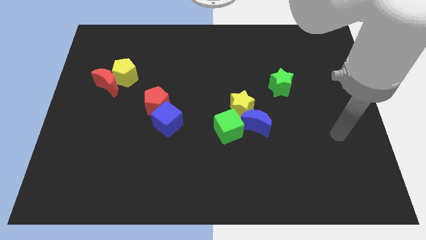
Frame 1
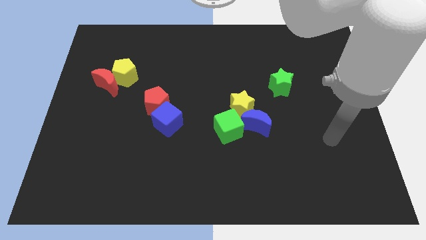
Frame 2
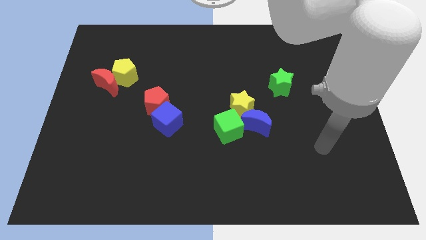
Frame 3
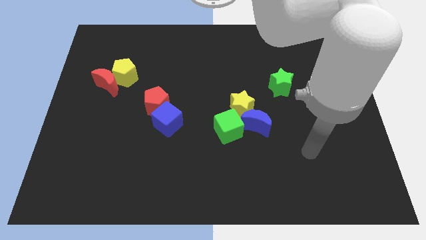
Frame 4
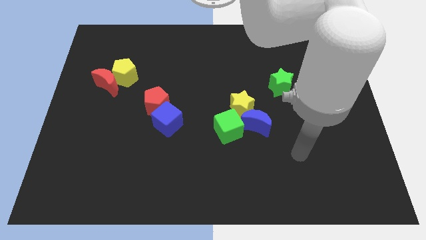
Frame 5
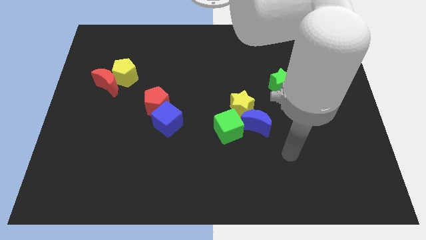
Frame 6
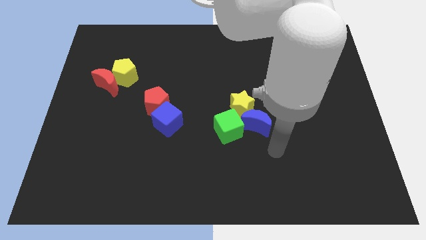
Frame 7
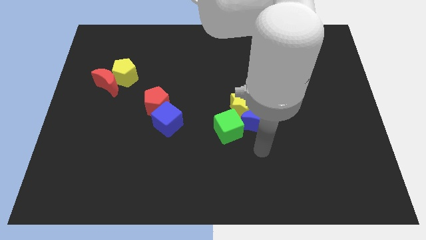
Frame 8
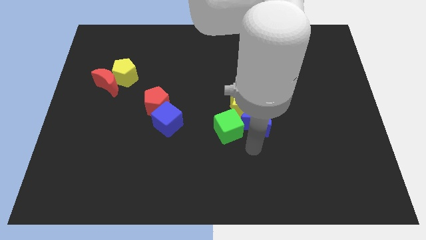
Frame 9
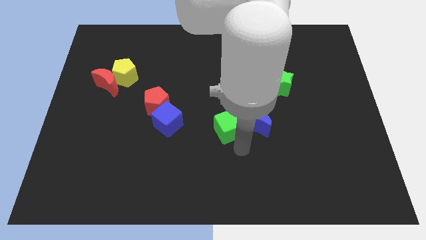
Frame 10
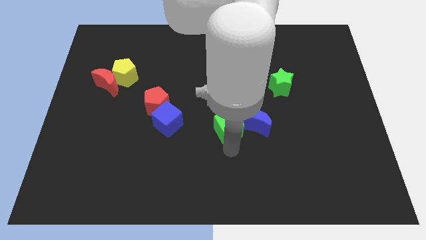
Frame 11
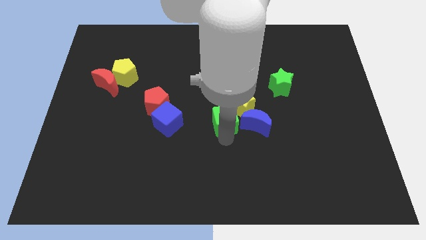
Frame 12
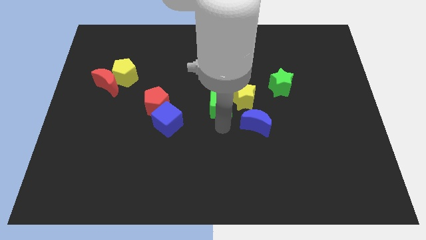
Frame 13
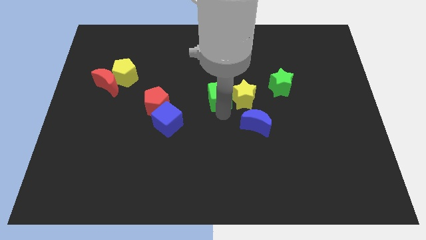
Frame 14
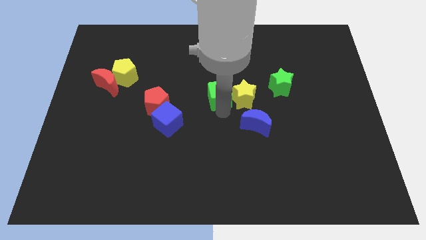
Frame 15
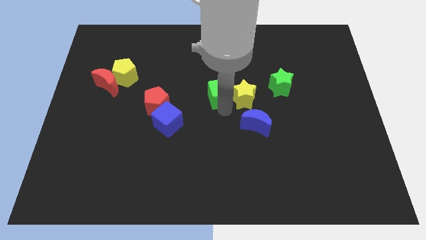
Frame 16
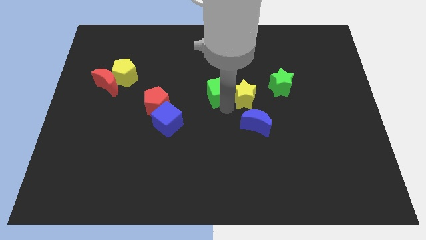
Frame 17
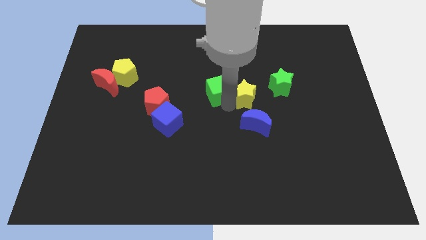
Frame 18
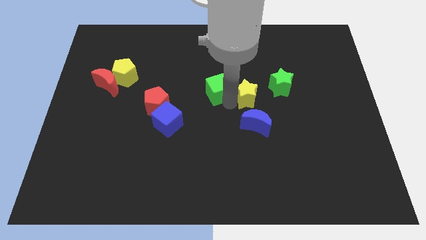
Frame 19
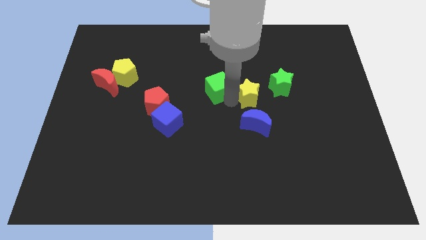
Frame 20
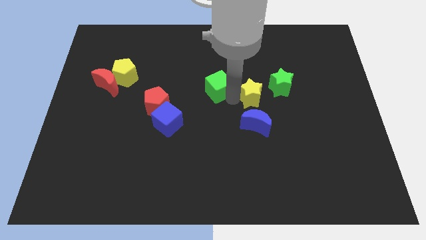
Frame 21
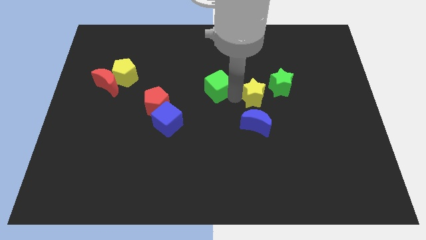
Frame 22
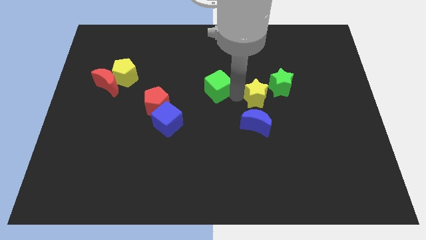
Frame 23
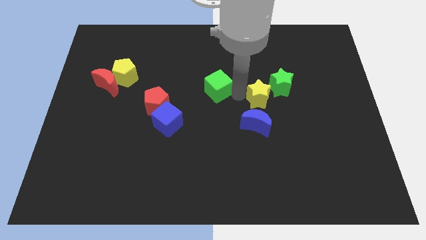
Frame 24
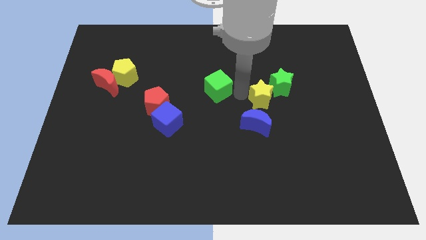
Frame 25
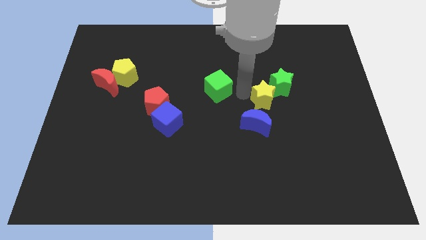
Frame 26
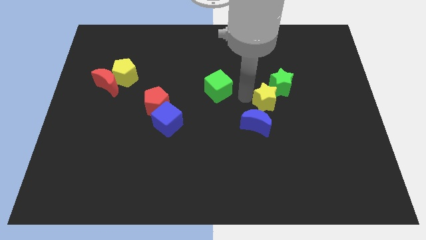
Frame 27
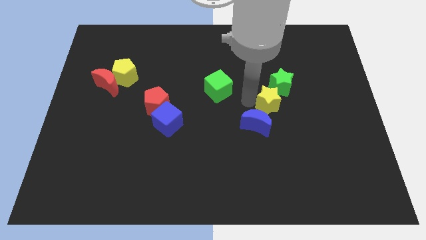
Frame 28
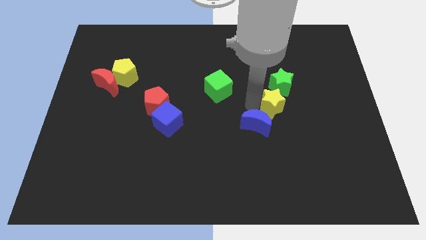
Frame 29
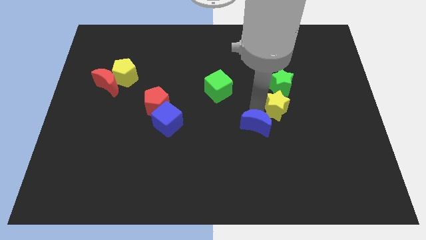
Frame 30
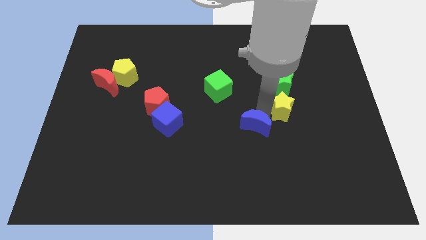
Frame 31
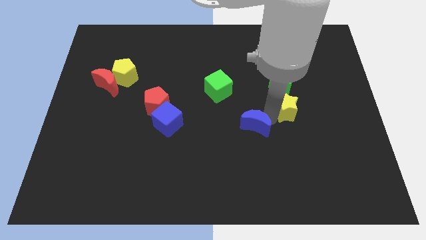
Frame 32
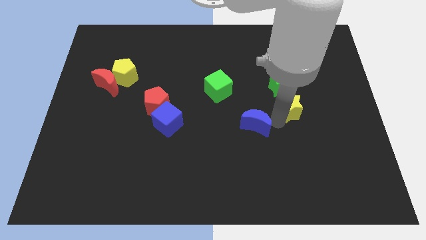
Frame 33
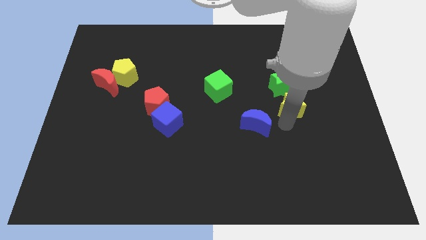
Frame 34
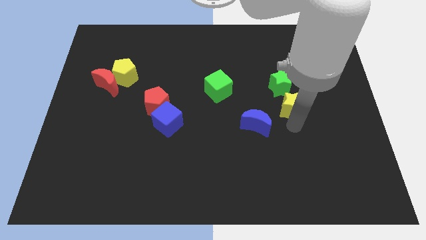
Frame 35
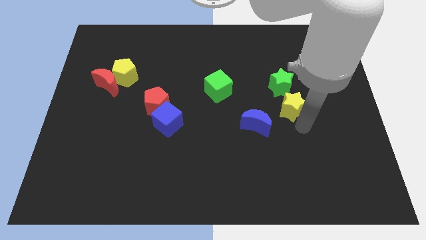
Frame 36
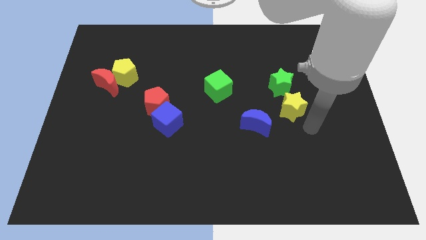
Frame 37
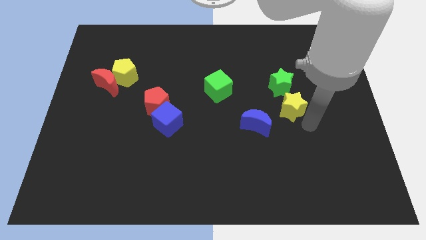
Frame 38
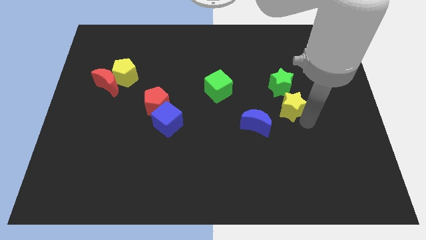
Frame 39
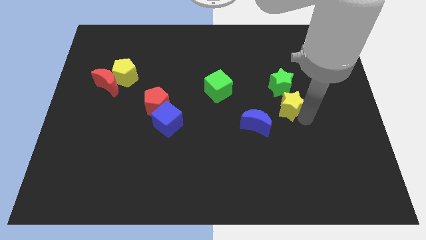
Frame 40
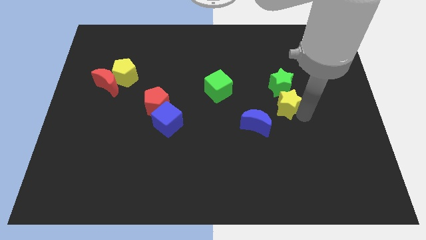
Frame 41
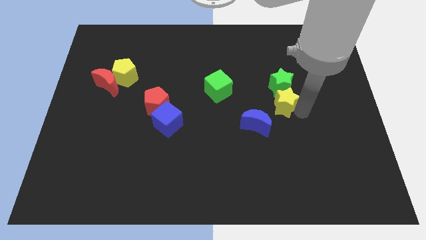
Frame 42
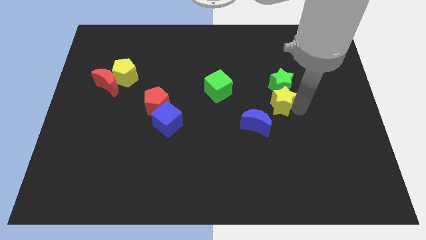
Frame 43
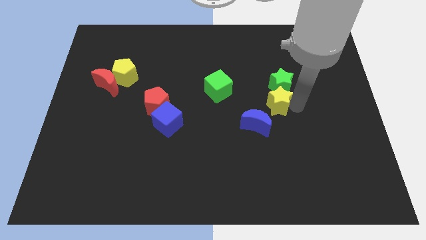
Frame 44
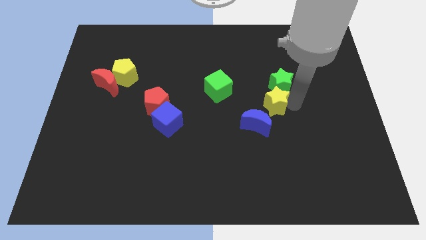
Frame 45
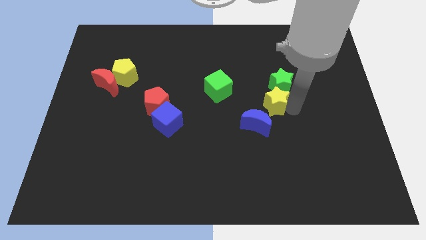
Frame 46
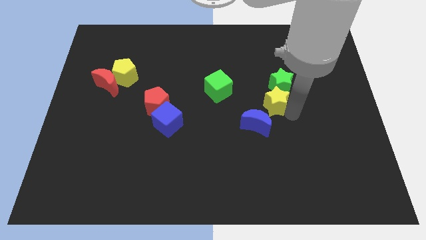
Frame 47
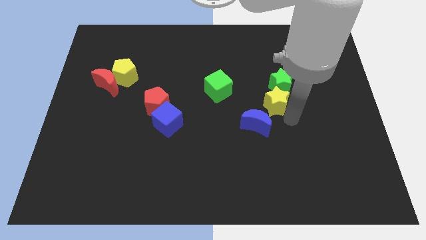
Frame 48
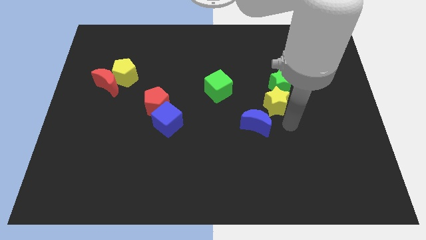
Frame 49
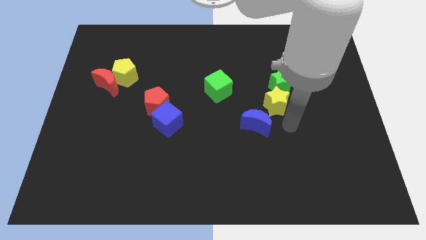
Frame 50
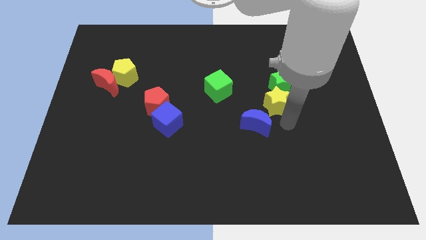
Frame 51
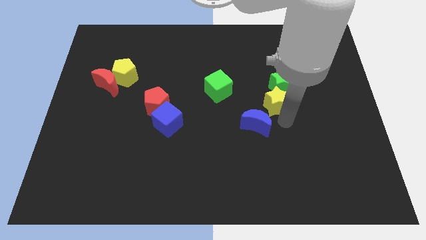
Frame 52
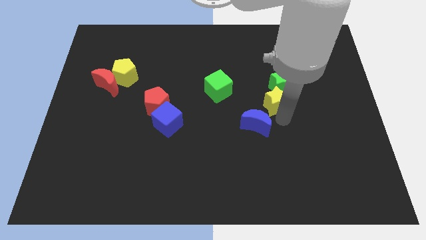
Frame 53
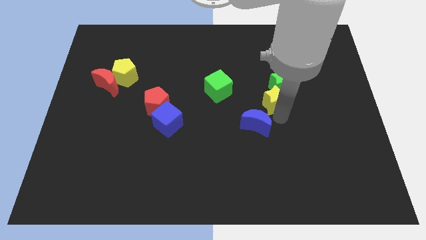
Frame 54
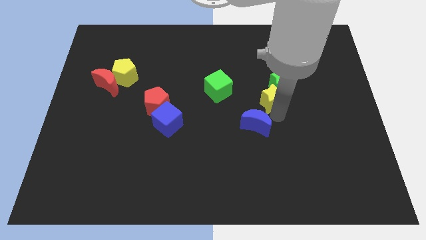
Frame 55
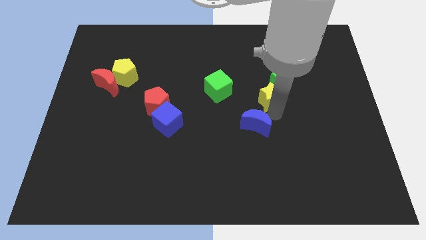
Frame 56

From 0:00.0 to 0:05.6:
move the yellow star diagonally up and to the right a little

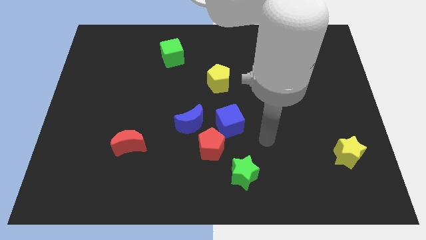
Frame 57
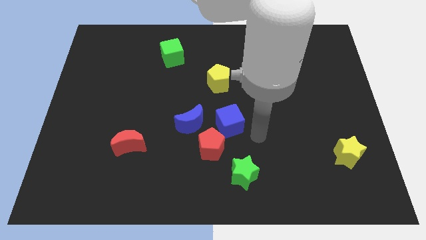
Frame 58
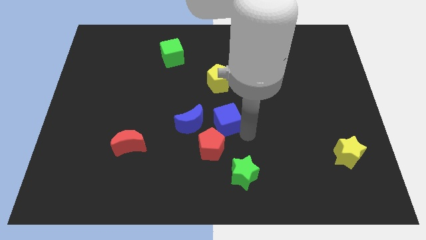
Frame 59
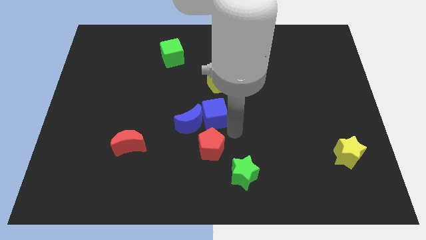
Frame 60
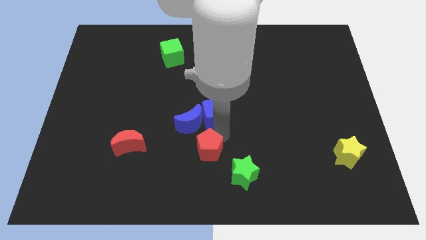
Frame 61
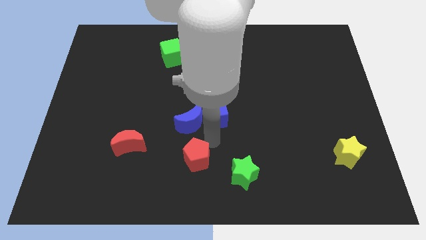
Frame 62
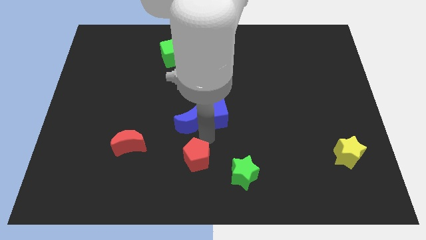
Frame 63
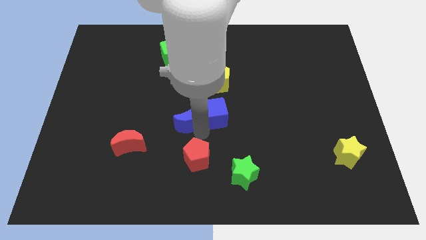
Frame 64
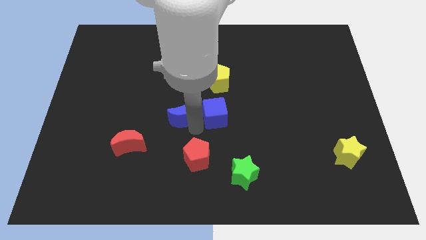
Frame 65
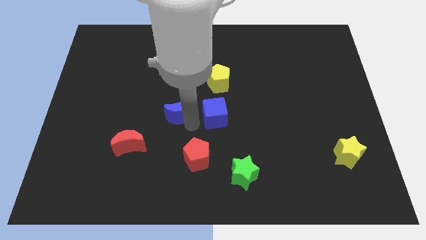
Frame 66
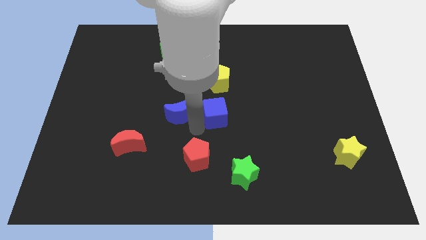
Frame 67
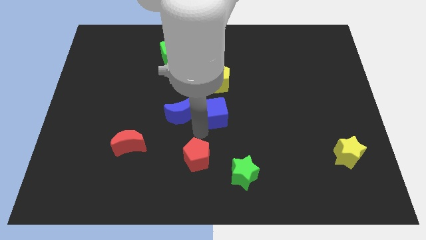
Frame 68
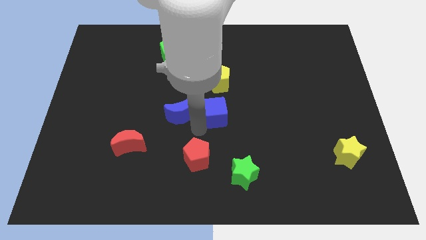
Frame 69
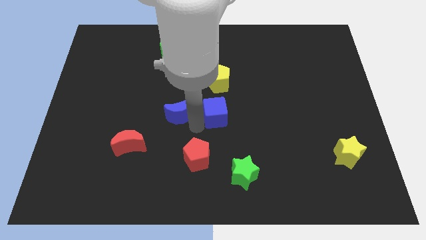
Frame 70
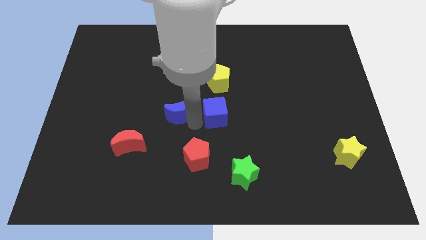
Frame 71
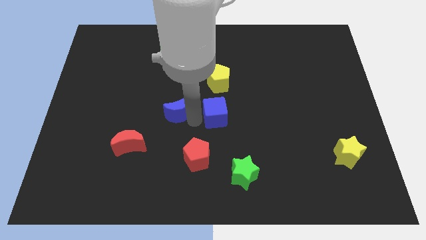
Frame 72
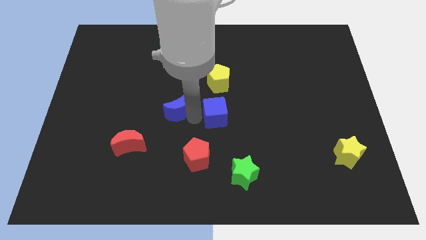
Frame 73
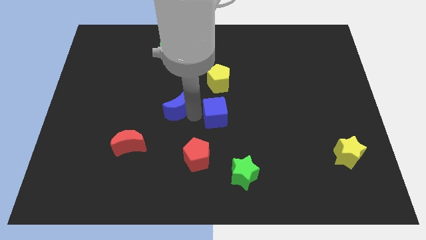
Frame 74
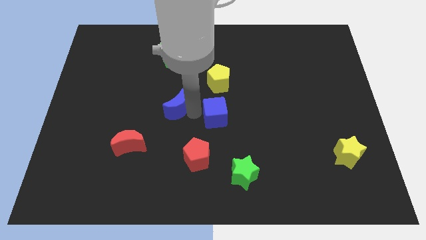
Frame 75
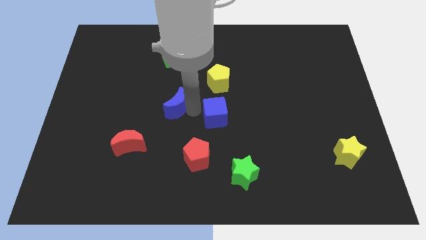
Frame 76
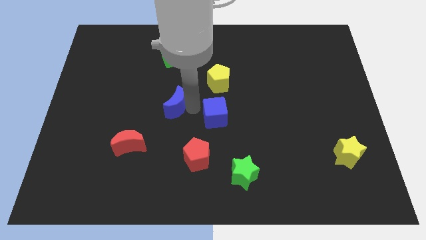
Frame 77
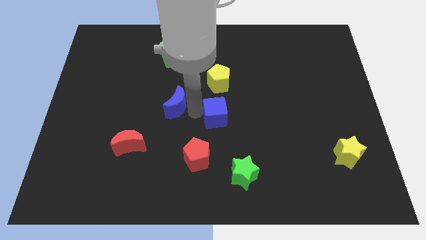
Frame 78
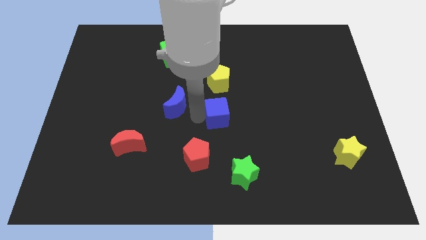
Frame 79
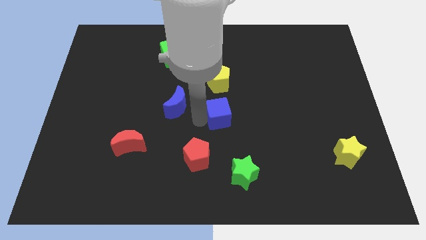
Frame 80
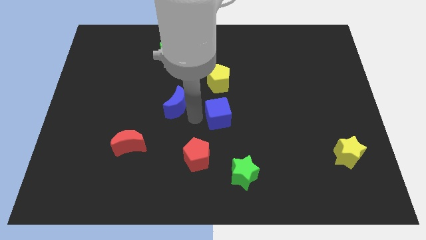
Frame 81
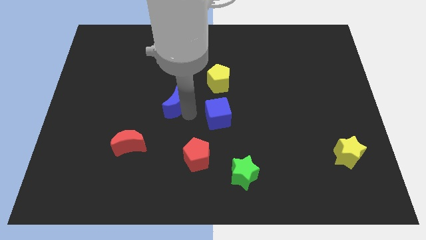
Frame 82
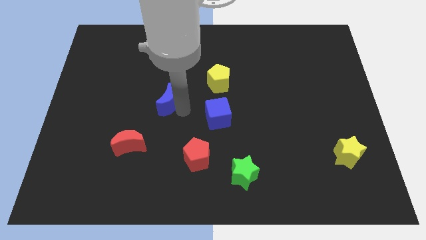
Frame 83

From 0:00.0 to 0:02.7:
move the blue moon upwards and then left somewhat
